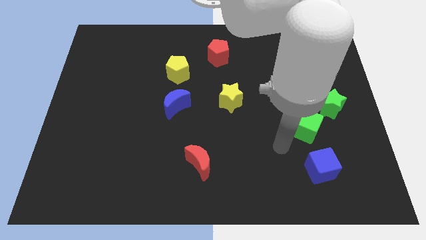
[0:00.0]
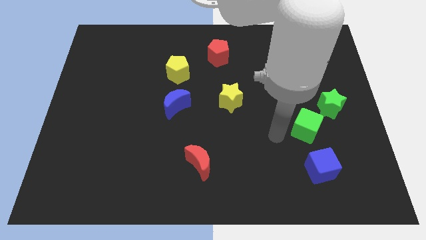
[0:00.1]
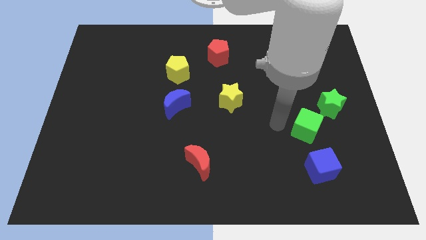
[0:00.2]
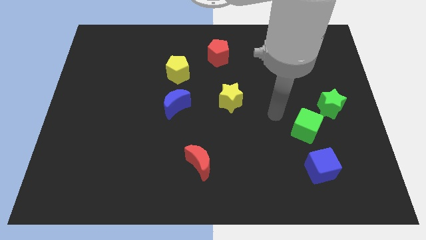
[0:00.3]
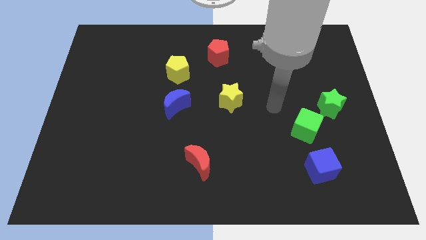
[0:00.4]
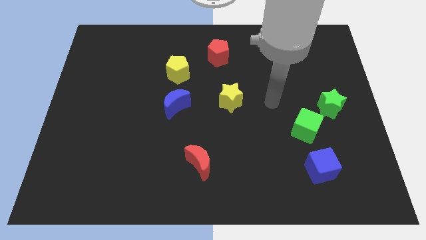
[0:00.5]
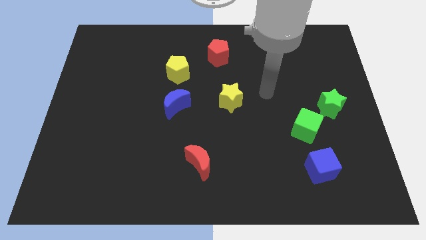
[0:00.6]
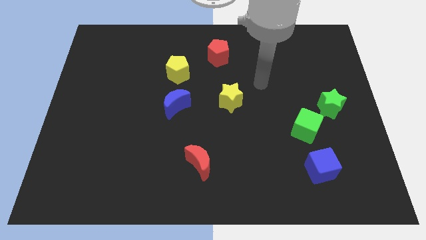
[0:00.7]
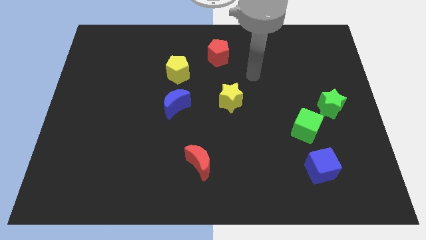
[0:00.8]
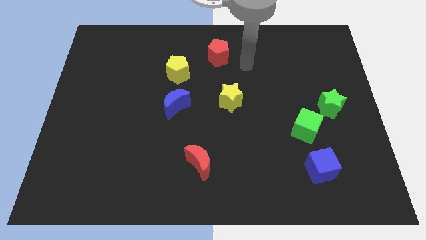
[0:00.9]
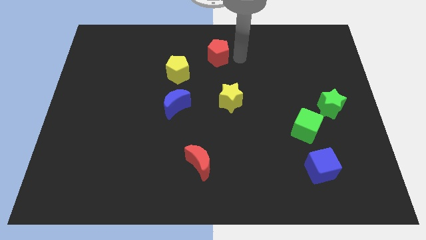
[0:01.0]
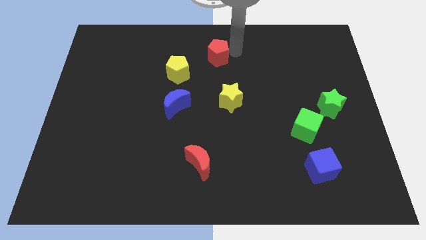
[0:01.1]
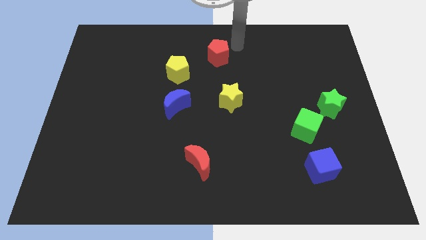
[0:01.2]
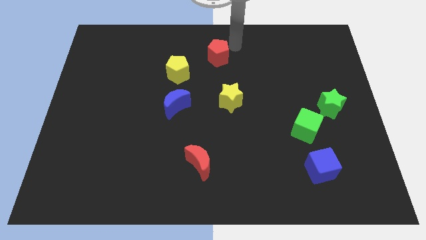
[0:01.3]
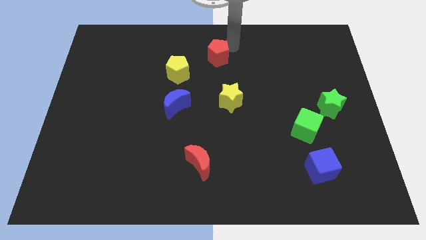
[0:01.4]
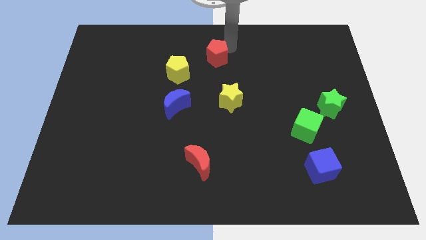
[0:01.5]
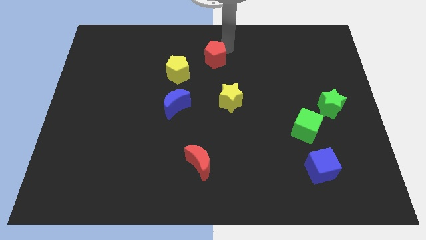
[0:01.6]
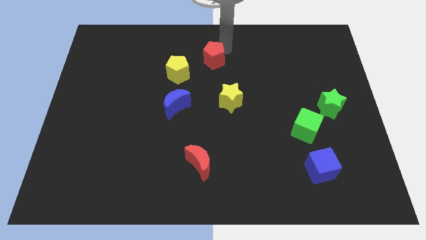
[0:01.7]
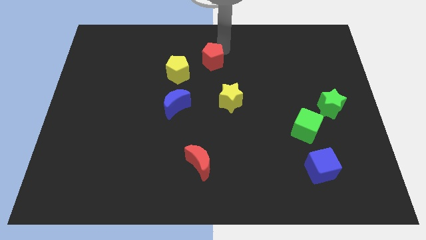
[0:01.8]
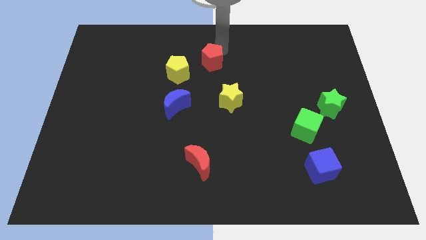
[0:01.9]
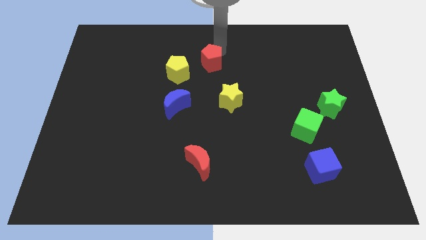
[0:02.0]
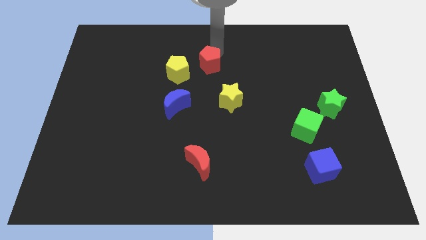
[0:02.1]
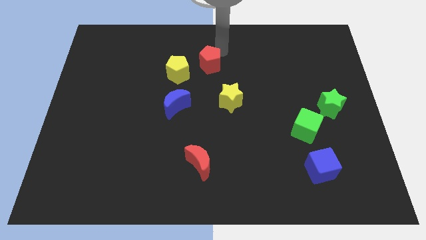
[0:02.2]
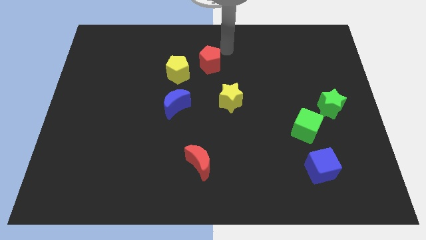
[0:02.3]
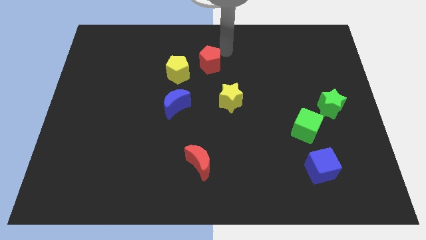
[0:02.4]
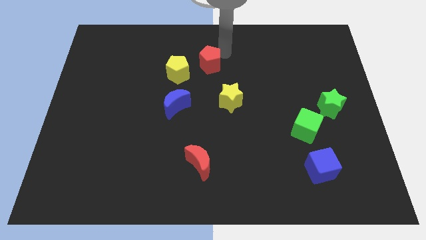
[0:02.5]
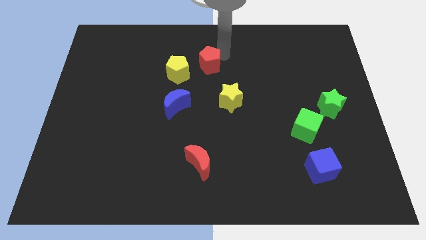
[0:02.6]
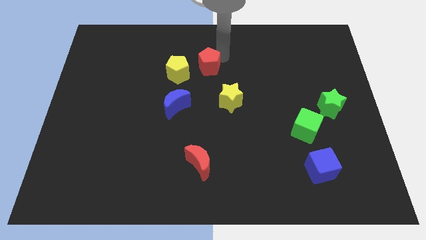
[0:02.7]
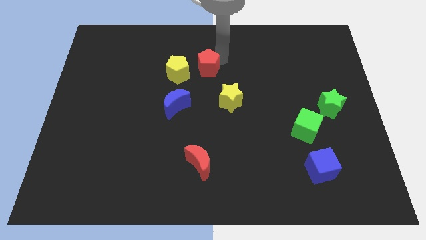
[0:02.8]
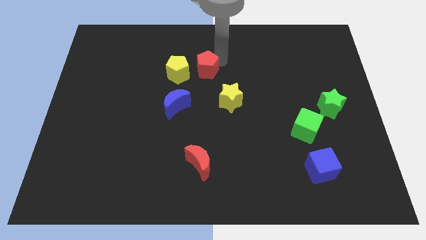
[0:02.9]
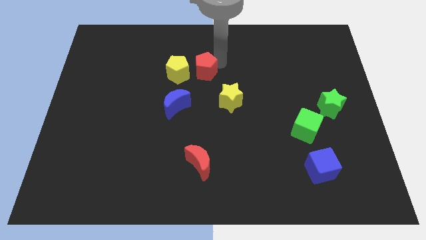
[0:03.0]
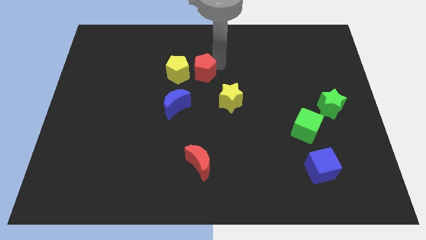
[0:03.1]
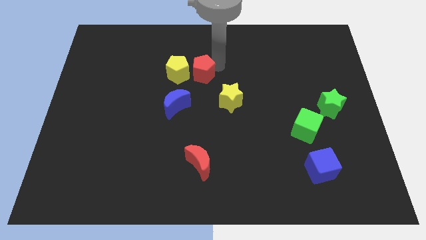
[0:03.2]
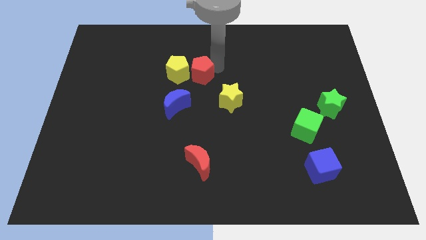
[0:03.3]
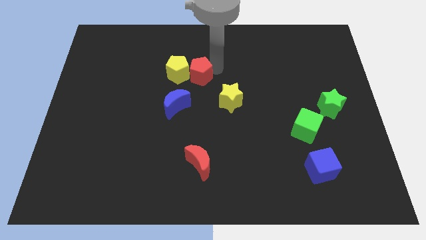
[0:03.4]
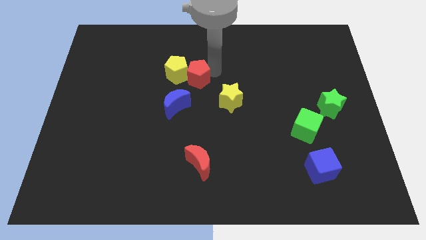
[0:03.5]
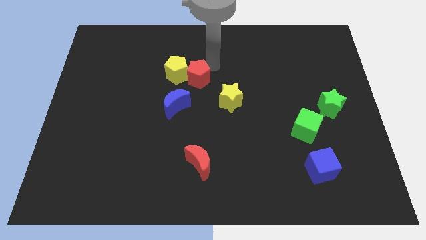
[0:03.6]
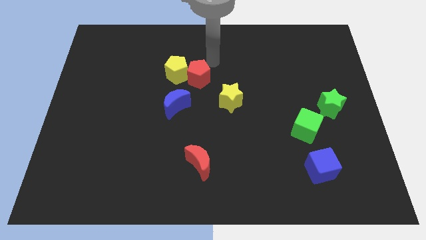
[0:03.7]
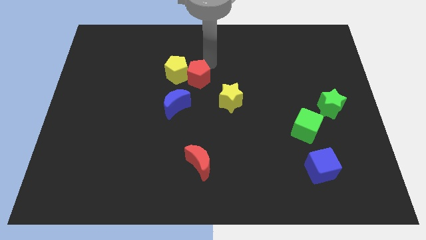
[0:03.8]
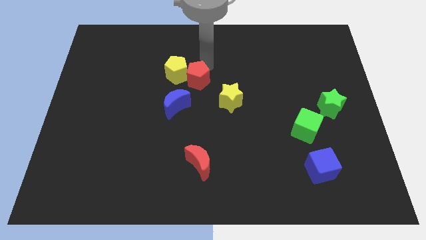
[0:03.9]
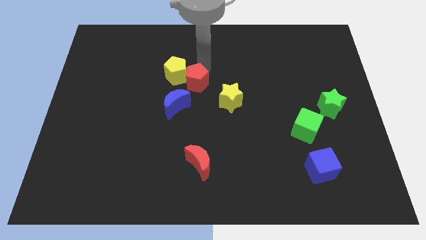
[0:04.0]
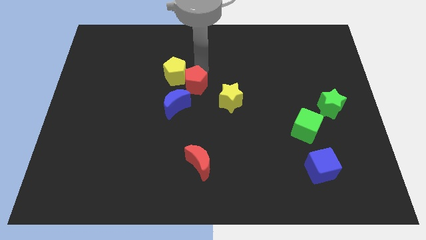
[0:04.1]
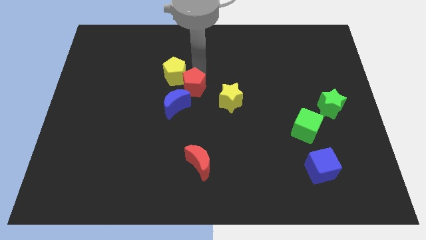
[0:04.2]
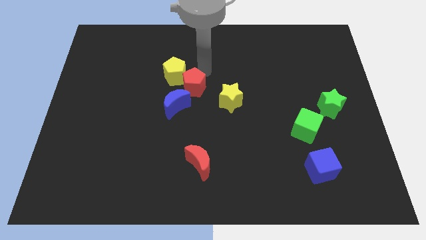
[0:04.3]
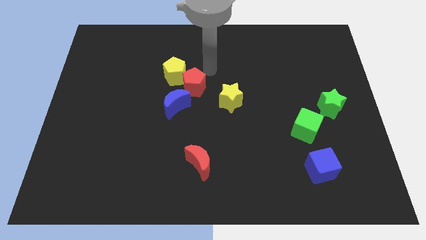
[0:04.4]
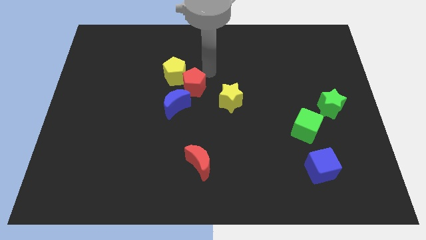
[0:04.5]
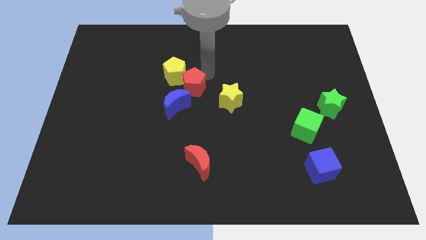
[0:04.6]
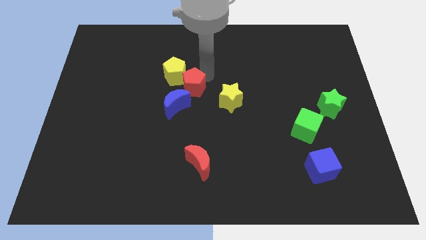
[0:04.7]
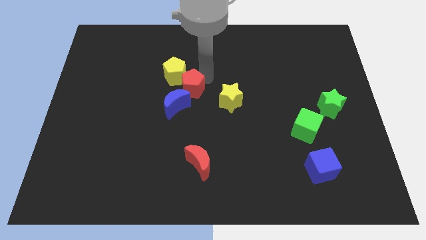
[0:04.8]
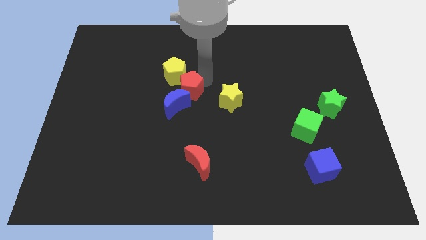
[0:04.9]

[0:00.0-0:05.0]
put the red pentagon close to the blue moon

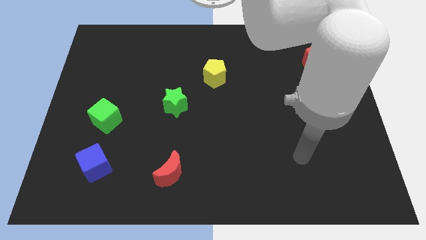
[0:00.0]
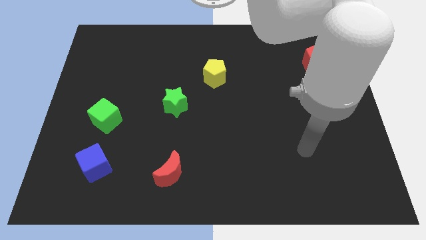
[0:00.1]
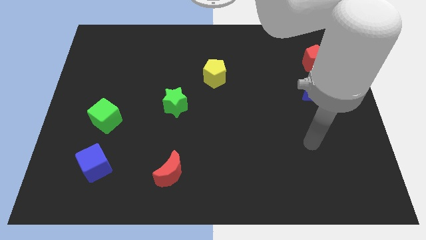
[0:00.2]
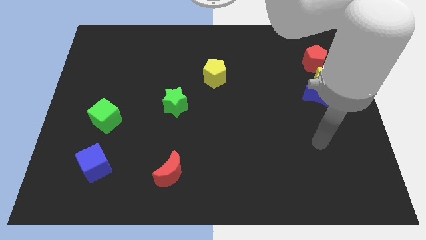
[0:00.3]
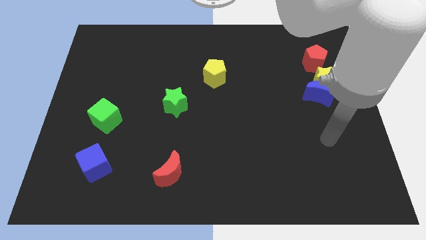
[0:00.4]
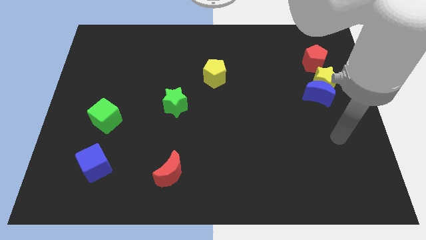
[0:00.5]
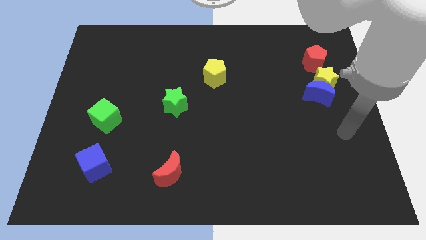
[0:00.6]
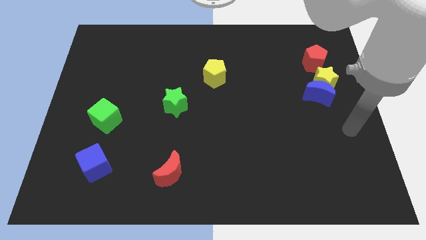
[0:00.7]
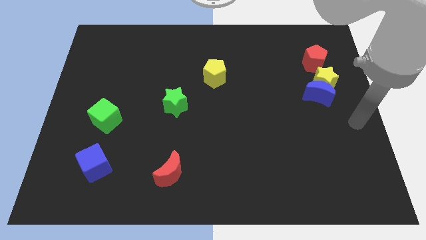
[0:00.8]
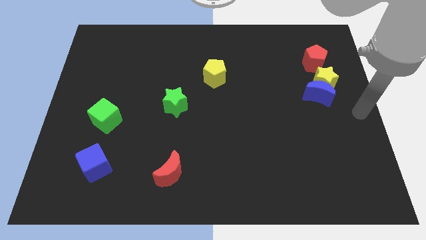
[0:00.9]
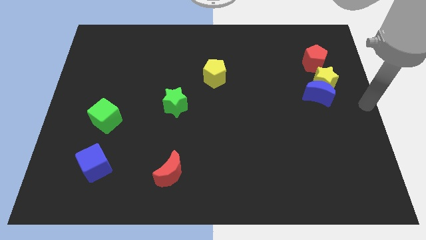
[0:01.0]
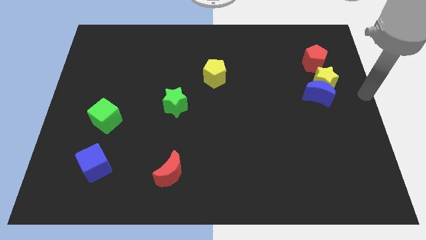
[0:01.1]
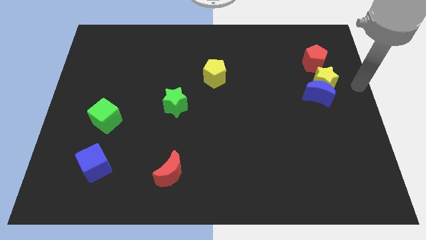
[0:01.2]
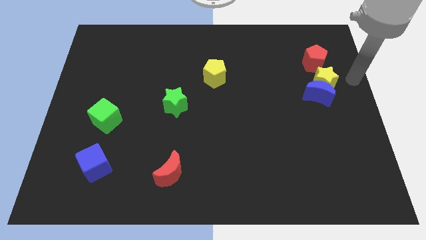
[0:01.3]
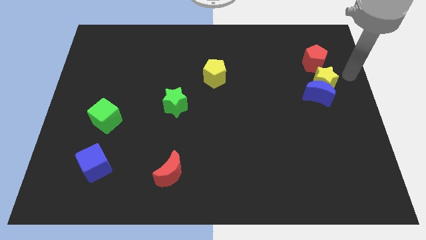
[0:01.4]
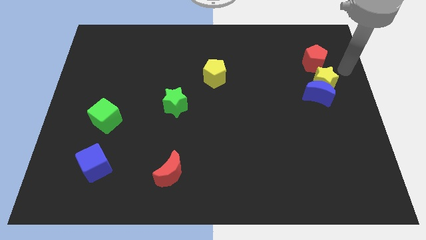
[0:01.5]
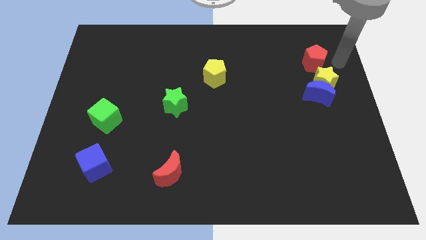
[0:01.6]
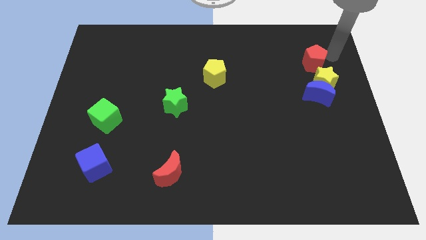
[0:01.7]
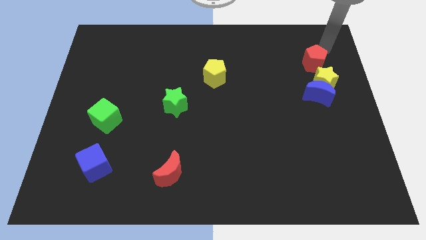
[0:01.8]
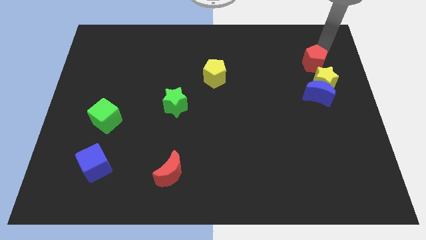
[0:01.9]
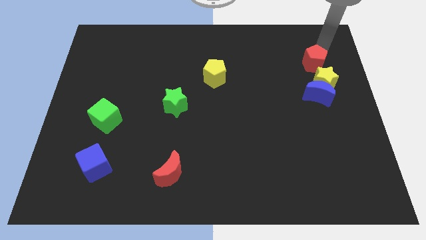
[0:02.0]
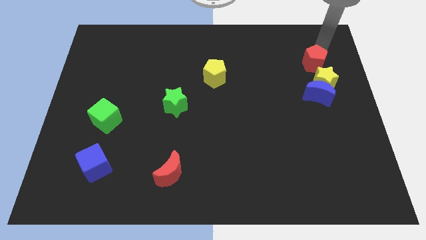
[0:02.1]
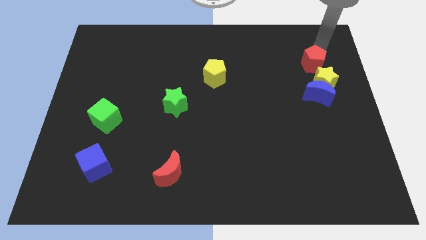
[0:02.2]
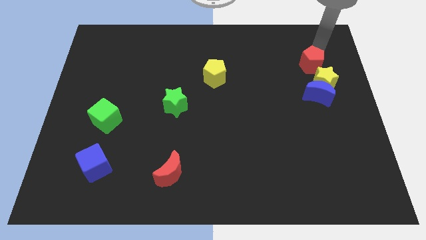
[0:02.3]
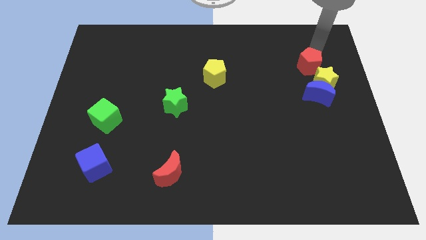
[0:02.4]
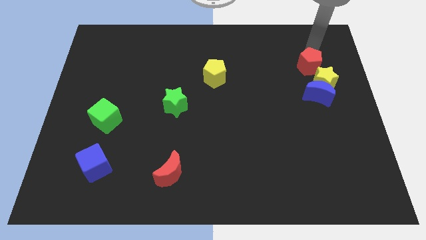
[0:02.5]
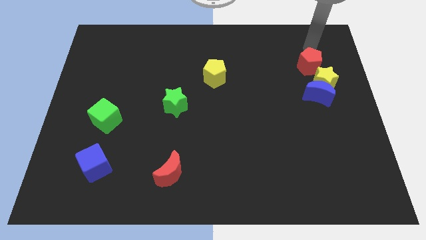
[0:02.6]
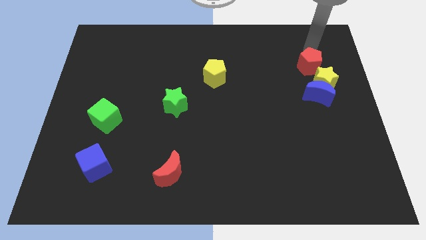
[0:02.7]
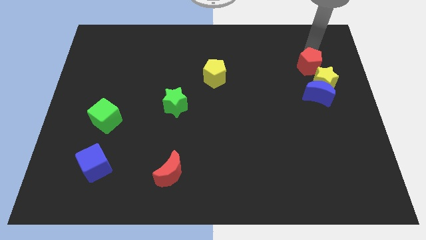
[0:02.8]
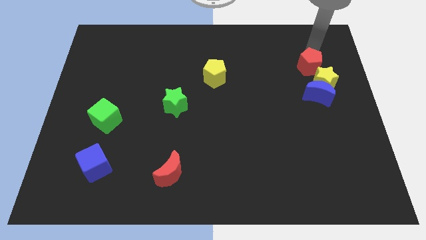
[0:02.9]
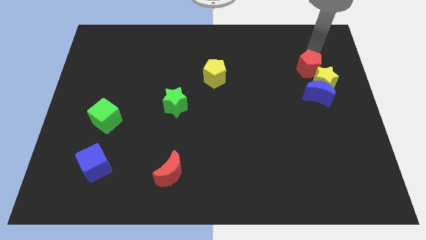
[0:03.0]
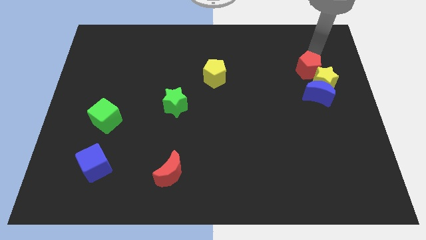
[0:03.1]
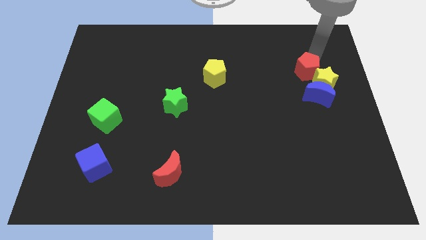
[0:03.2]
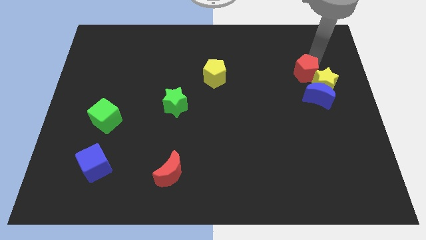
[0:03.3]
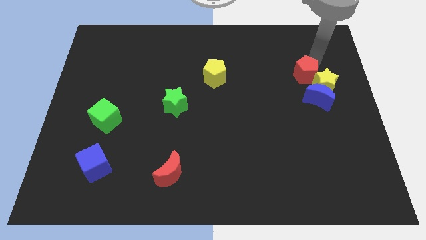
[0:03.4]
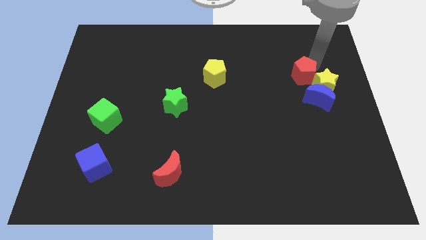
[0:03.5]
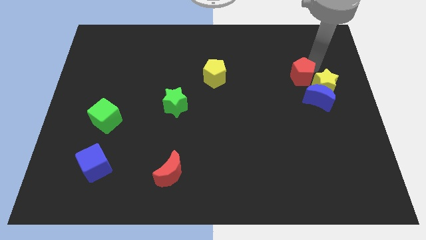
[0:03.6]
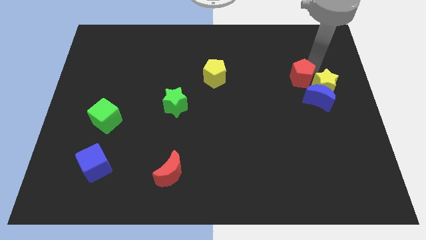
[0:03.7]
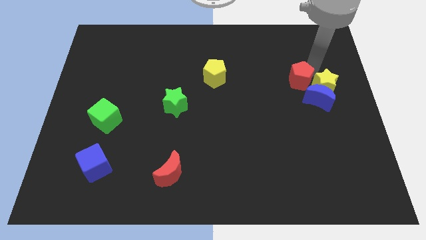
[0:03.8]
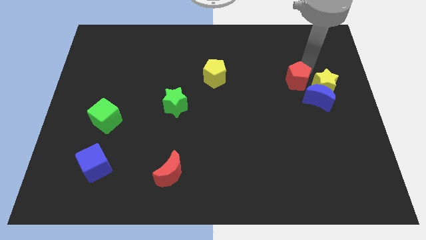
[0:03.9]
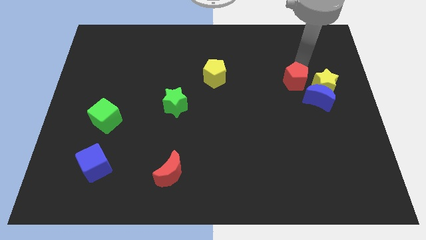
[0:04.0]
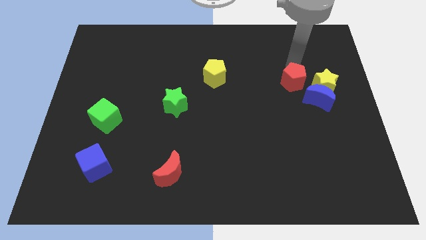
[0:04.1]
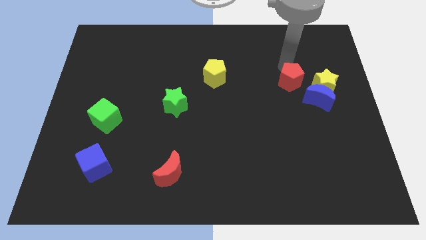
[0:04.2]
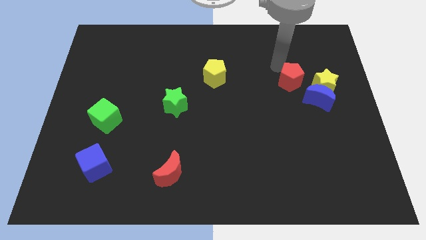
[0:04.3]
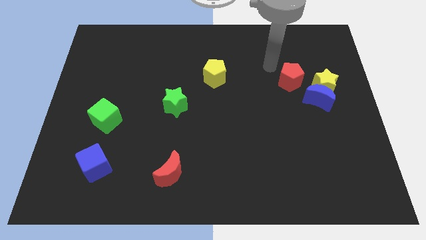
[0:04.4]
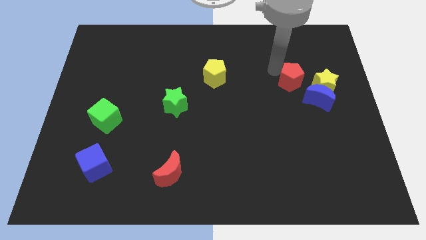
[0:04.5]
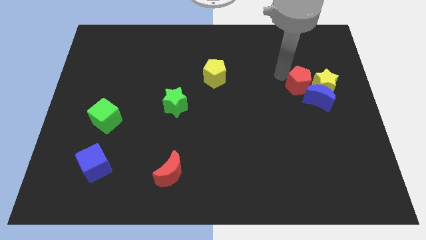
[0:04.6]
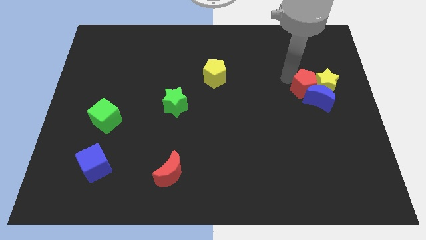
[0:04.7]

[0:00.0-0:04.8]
move the red pentagon to the blue moon
